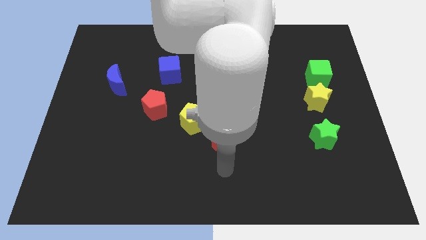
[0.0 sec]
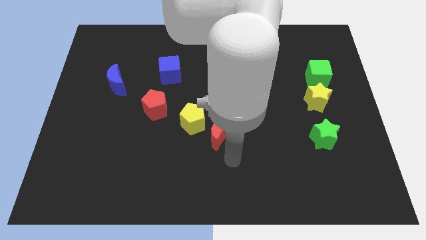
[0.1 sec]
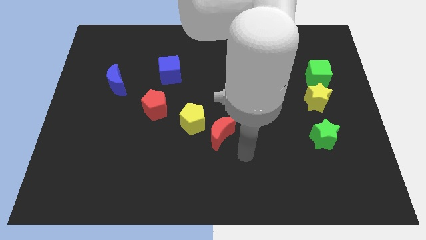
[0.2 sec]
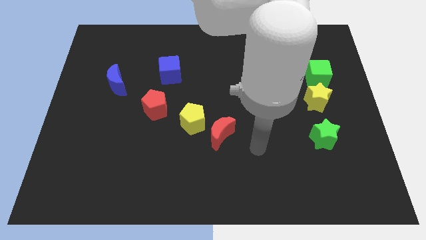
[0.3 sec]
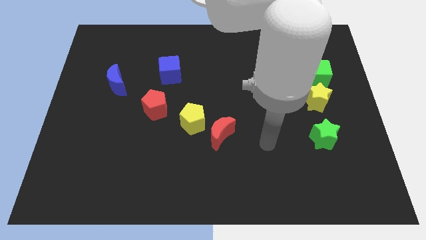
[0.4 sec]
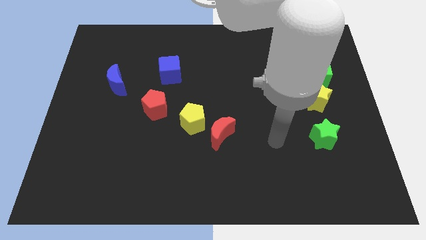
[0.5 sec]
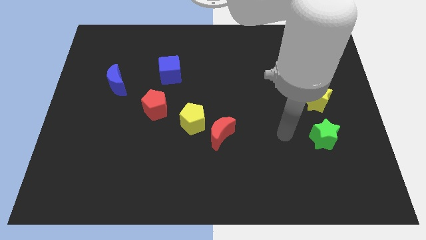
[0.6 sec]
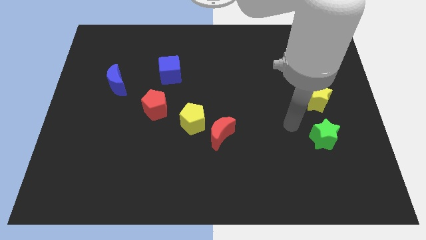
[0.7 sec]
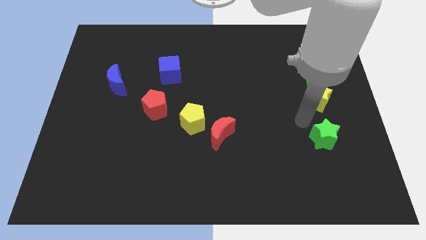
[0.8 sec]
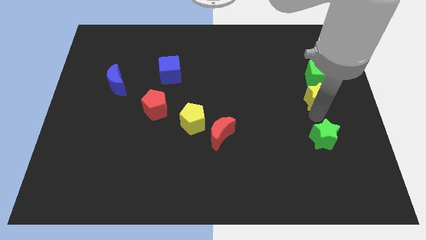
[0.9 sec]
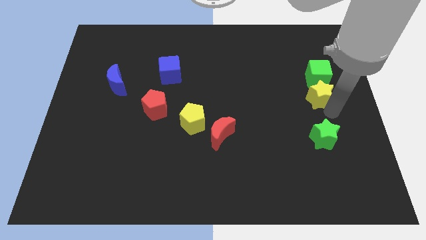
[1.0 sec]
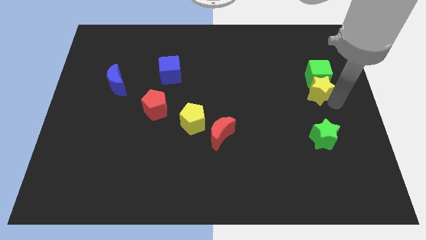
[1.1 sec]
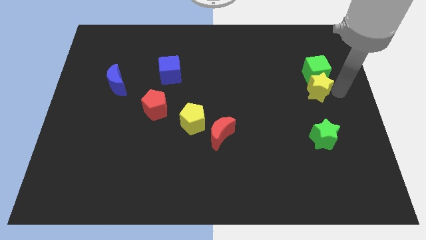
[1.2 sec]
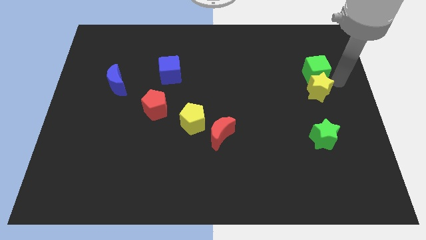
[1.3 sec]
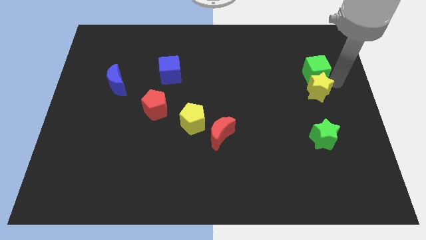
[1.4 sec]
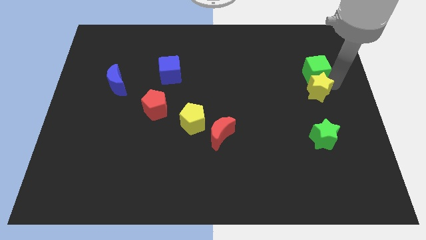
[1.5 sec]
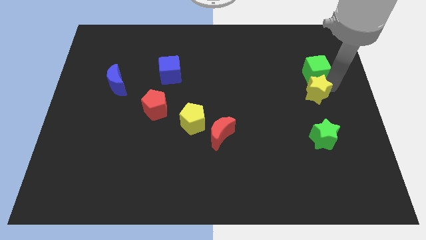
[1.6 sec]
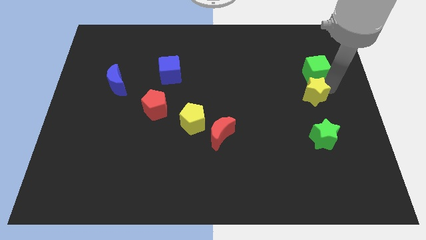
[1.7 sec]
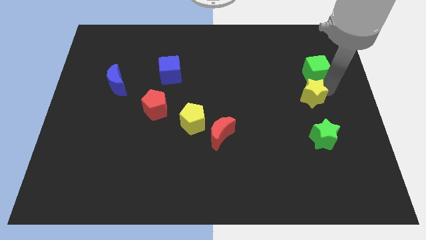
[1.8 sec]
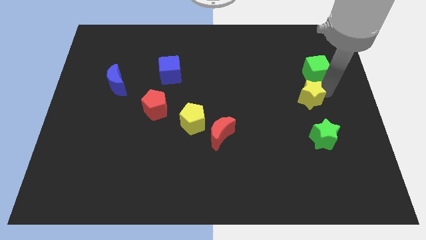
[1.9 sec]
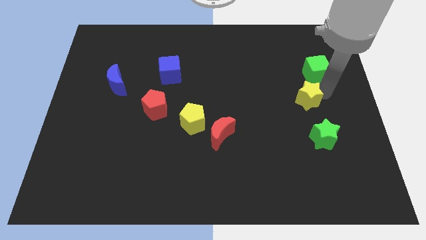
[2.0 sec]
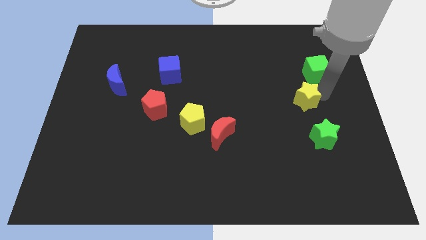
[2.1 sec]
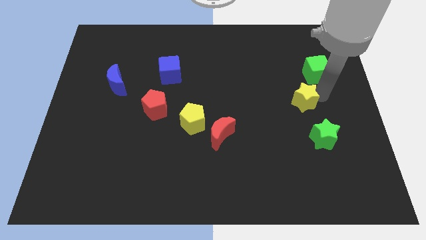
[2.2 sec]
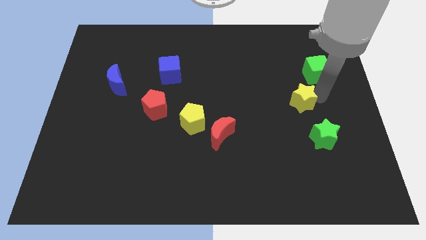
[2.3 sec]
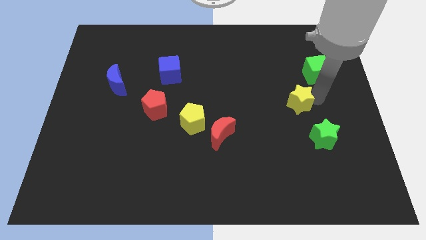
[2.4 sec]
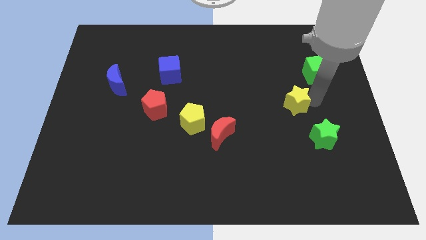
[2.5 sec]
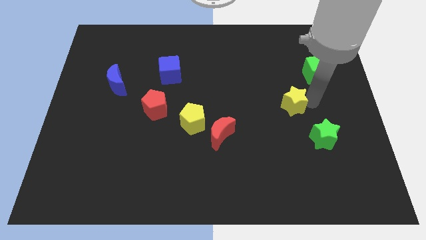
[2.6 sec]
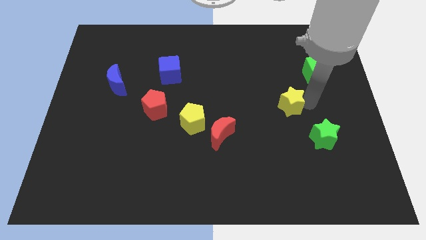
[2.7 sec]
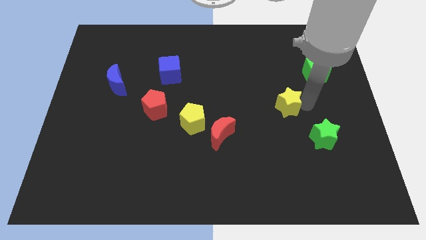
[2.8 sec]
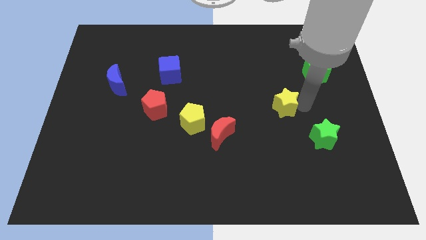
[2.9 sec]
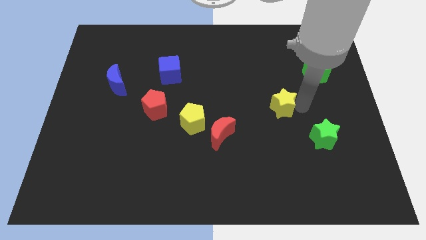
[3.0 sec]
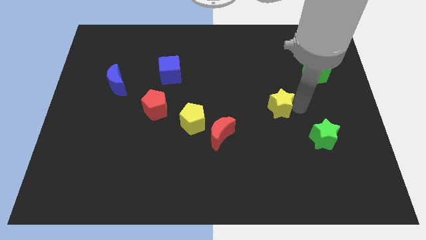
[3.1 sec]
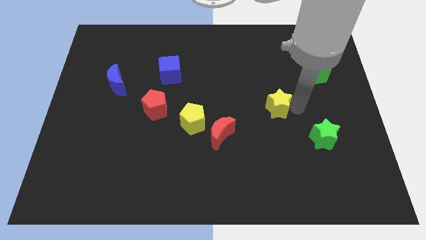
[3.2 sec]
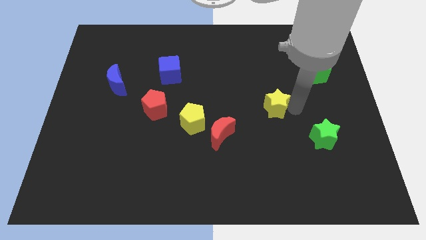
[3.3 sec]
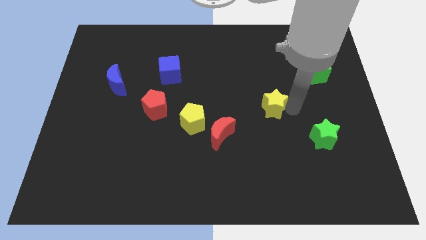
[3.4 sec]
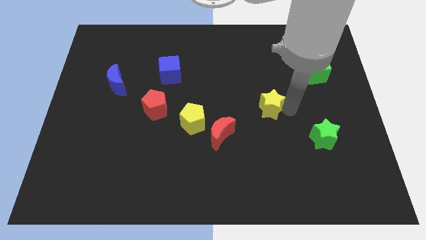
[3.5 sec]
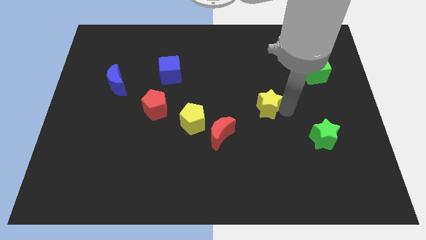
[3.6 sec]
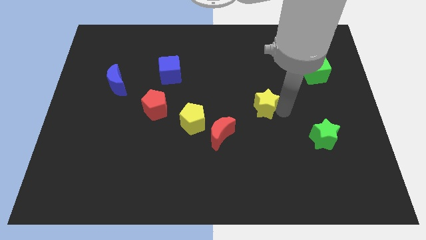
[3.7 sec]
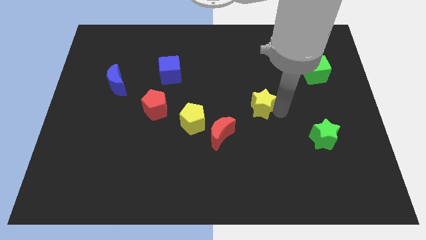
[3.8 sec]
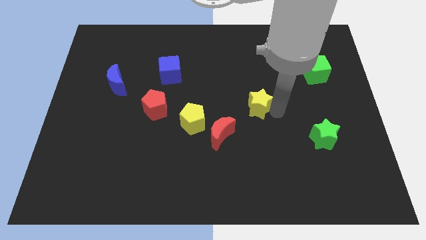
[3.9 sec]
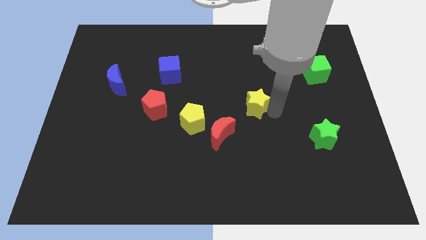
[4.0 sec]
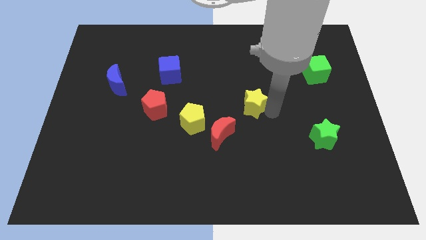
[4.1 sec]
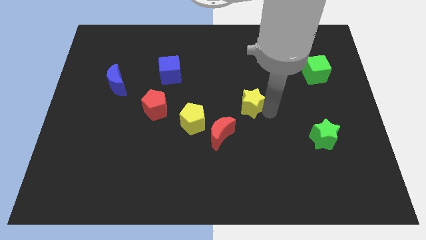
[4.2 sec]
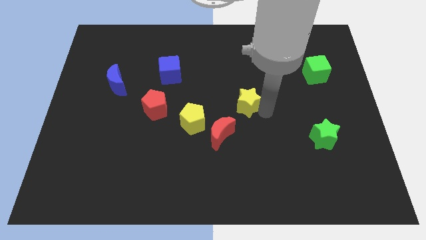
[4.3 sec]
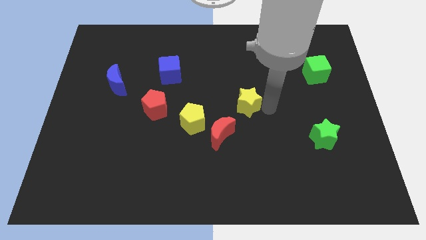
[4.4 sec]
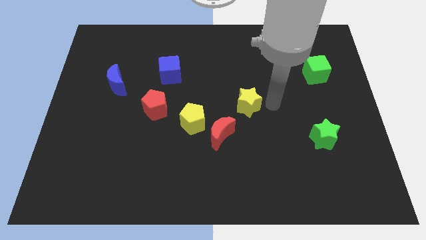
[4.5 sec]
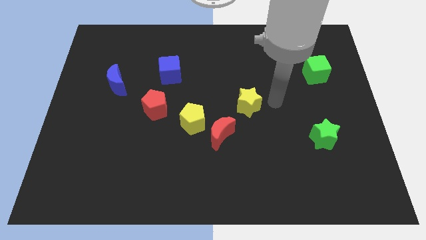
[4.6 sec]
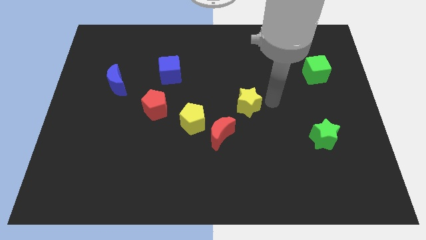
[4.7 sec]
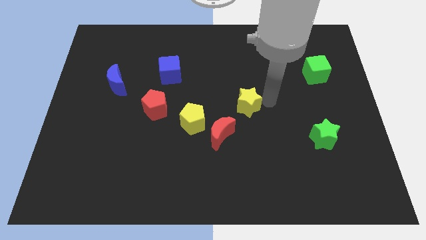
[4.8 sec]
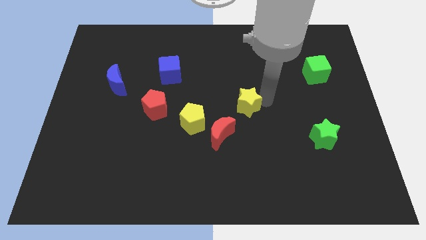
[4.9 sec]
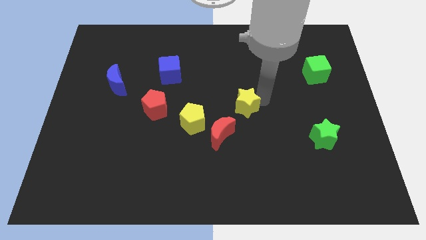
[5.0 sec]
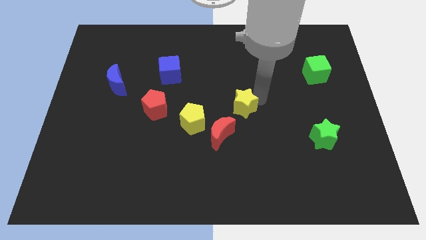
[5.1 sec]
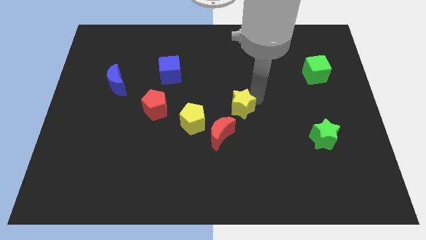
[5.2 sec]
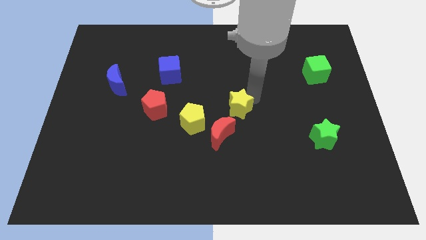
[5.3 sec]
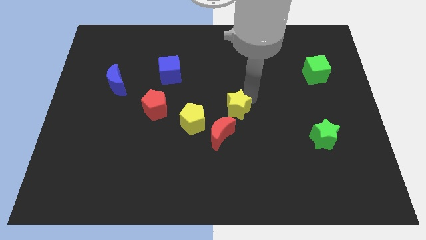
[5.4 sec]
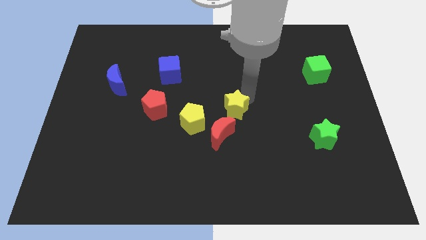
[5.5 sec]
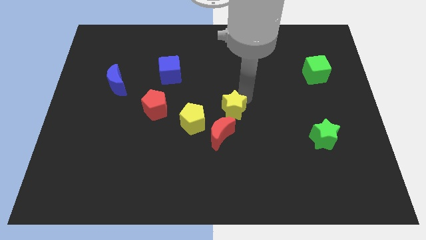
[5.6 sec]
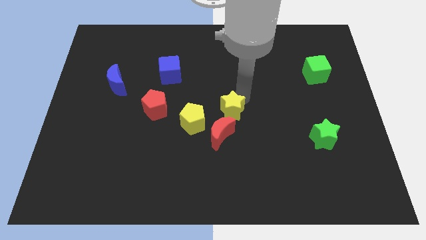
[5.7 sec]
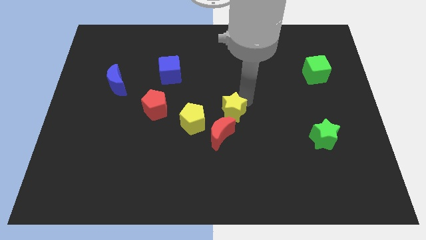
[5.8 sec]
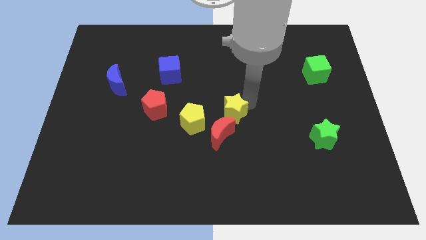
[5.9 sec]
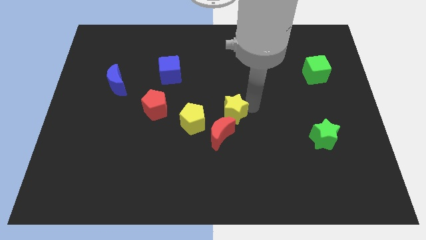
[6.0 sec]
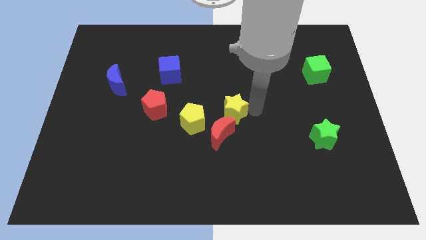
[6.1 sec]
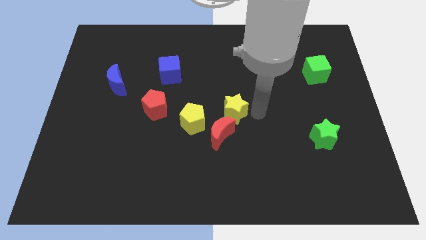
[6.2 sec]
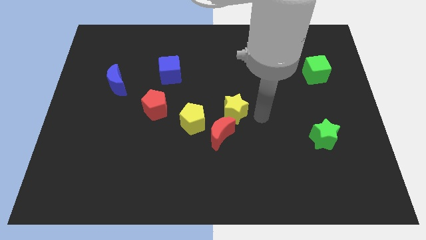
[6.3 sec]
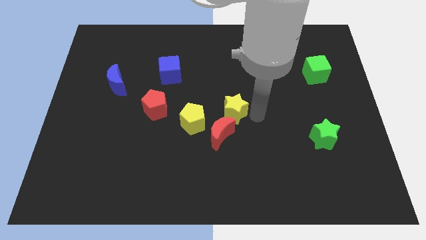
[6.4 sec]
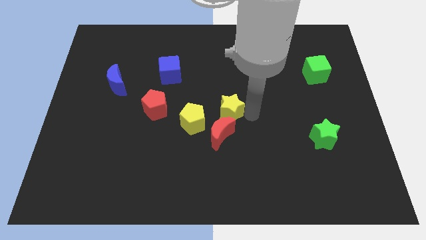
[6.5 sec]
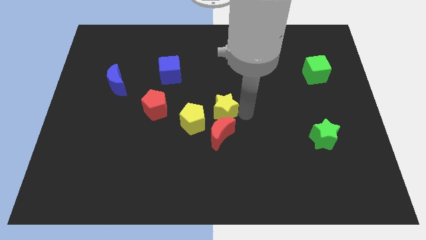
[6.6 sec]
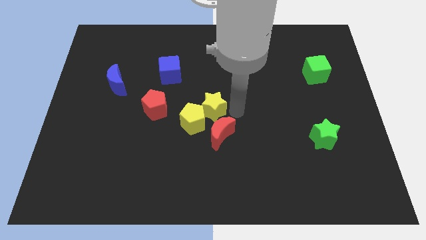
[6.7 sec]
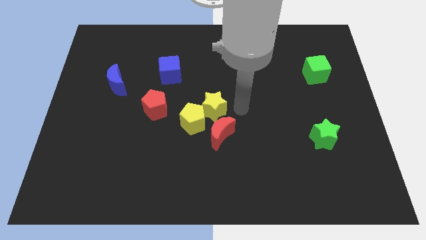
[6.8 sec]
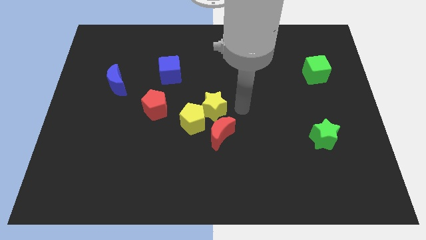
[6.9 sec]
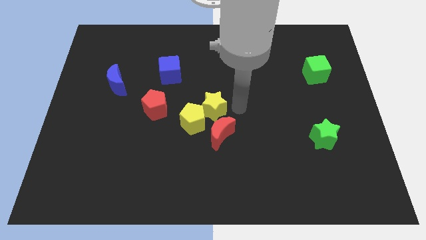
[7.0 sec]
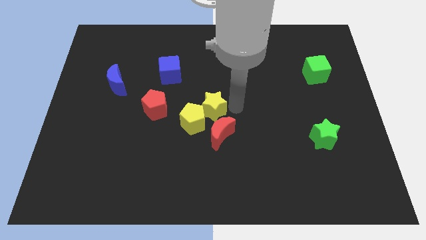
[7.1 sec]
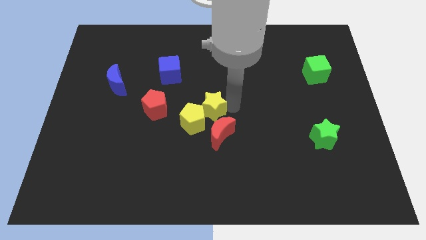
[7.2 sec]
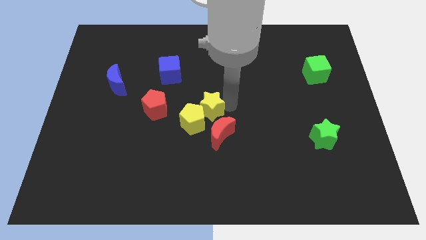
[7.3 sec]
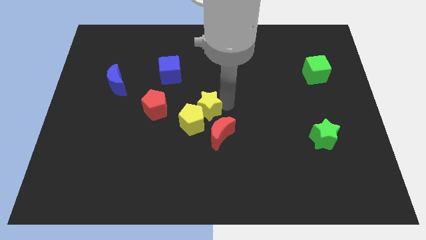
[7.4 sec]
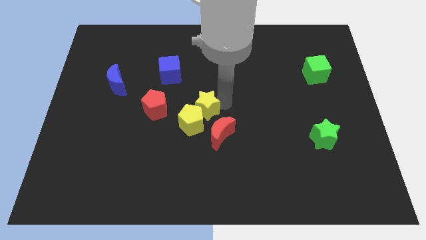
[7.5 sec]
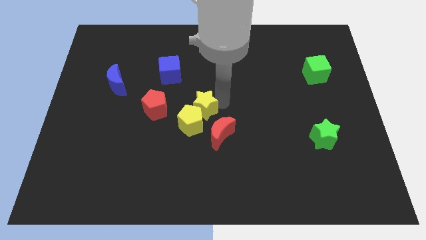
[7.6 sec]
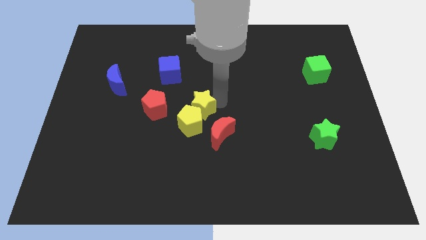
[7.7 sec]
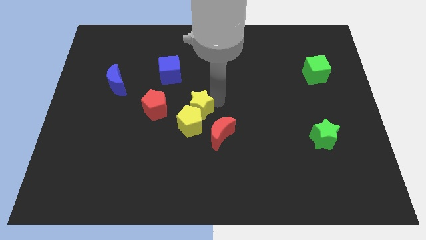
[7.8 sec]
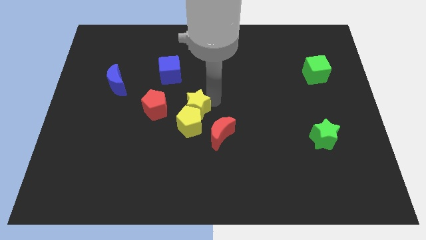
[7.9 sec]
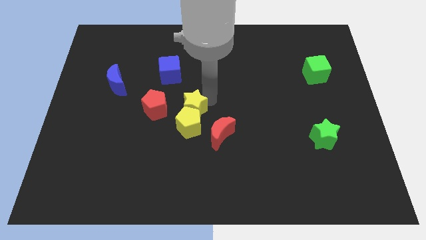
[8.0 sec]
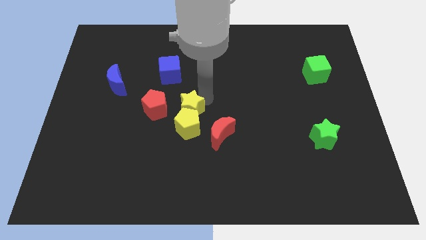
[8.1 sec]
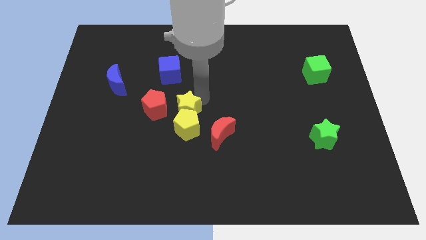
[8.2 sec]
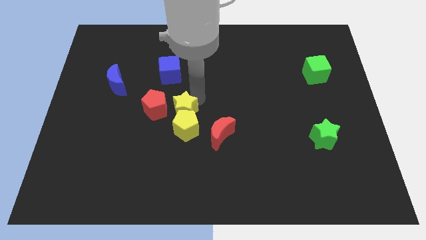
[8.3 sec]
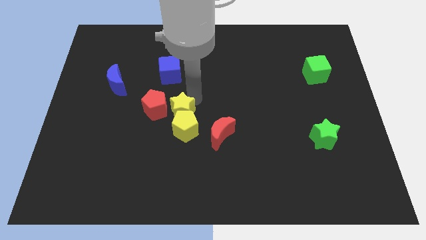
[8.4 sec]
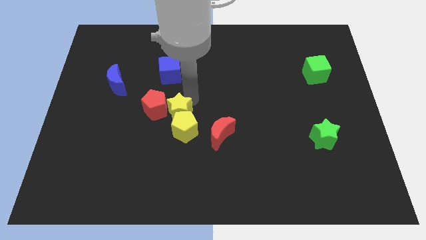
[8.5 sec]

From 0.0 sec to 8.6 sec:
push the yellow star next to the red pentagon
